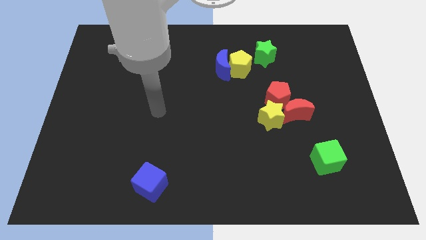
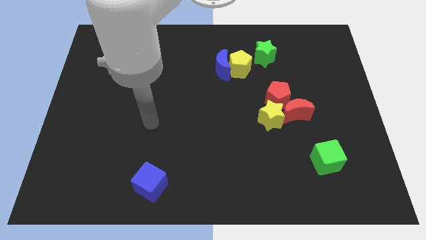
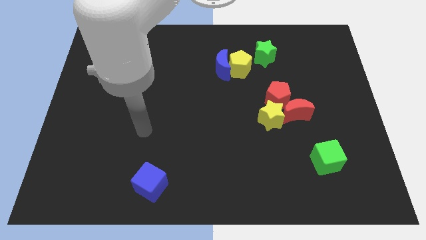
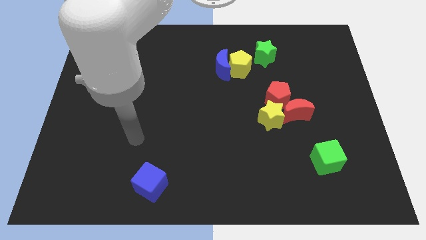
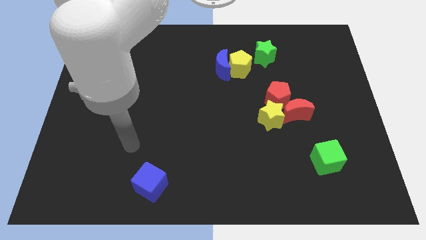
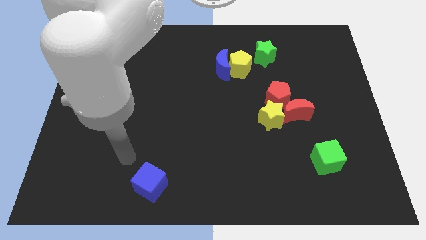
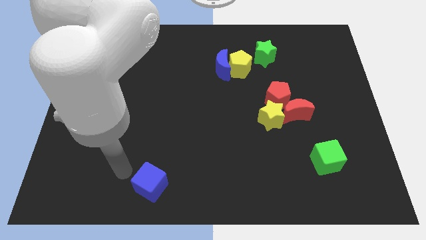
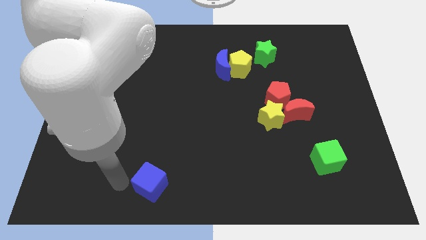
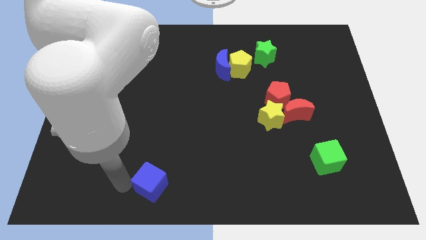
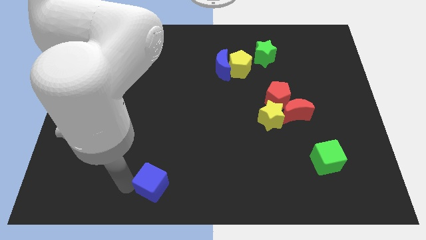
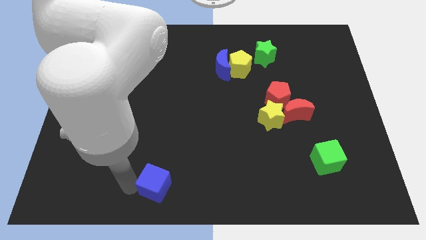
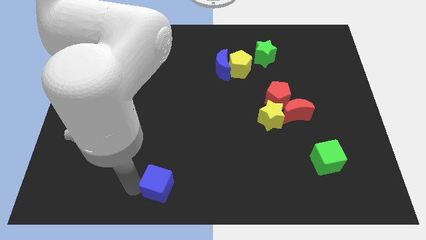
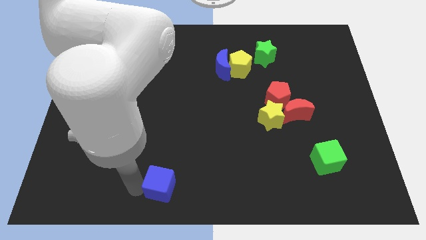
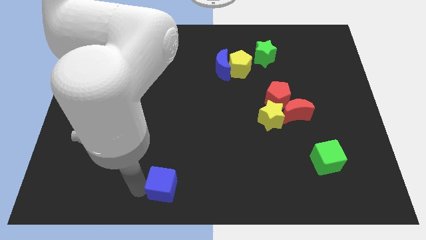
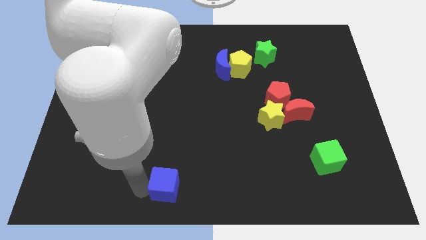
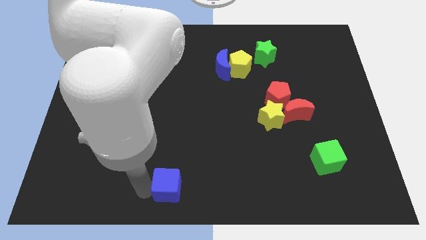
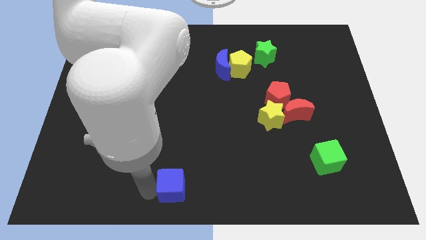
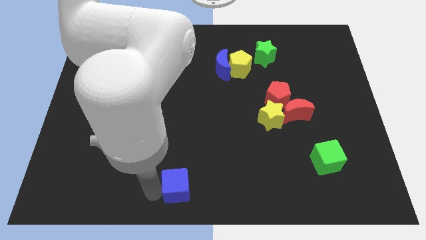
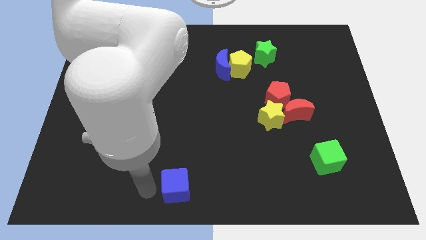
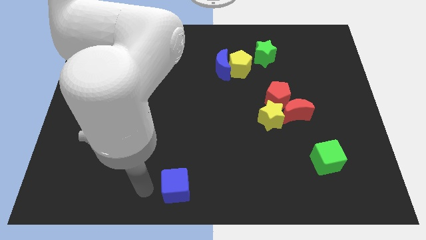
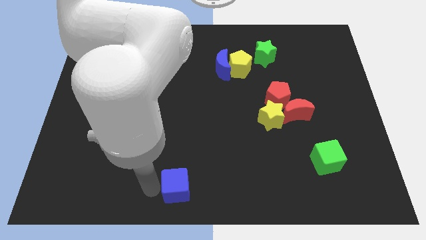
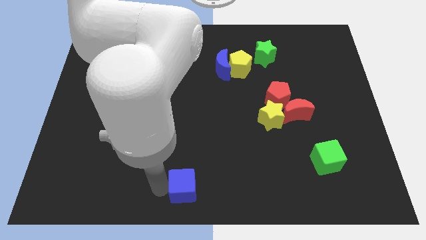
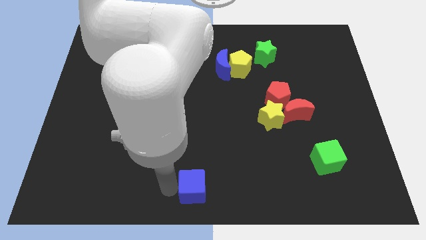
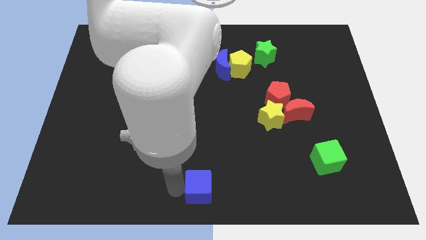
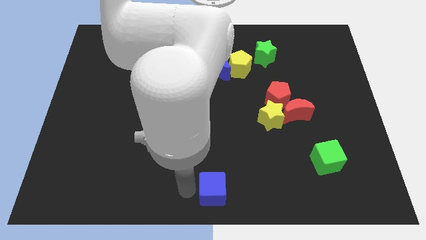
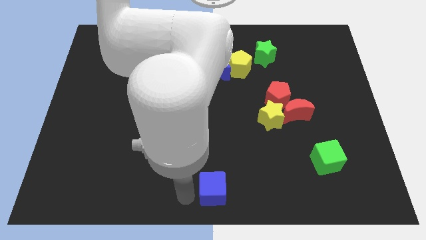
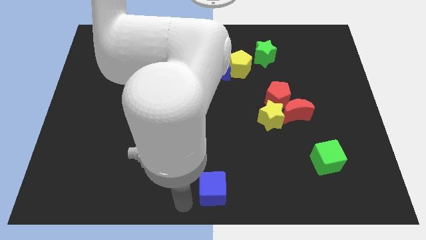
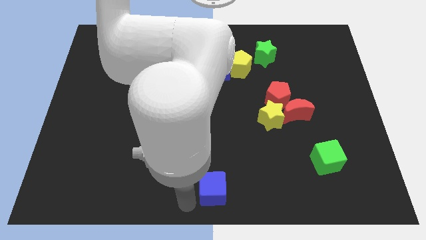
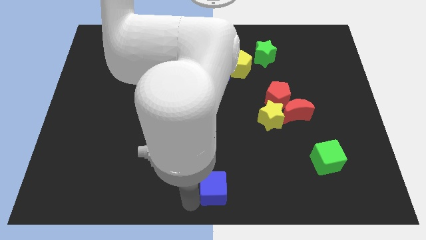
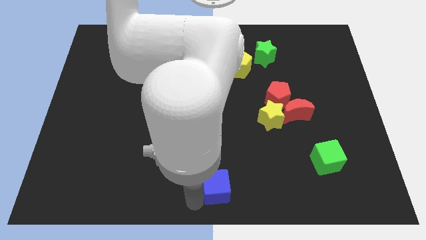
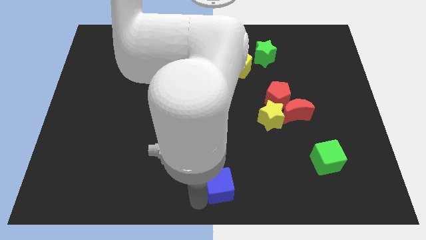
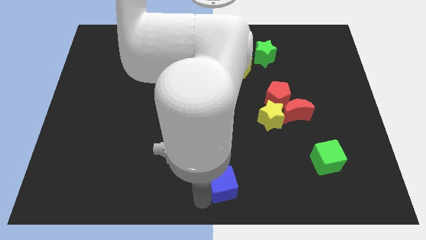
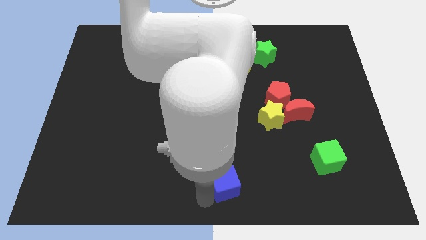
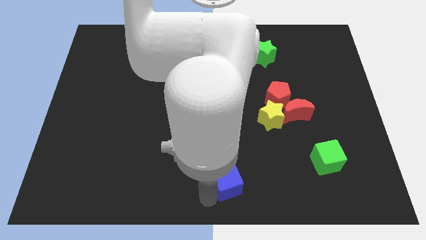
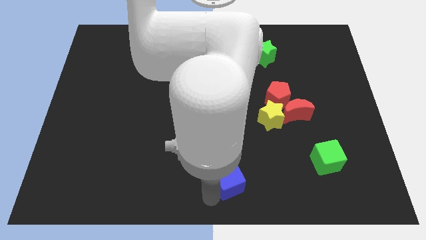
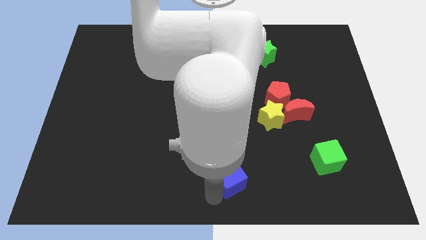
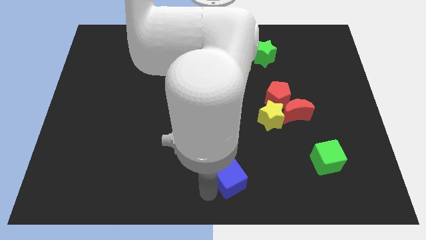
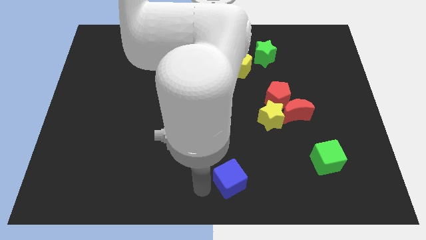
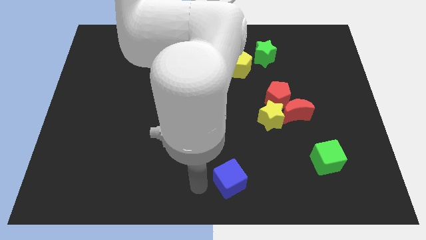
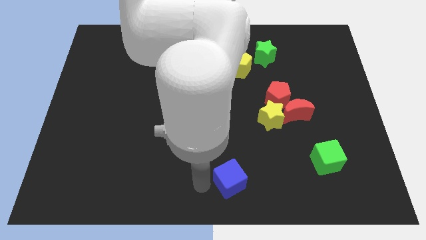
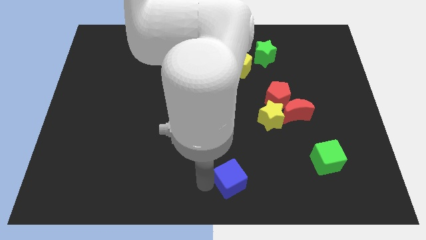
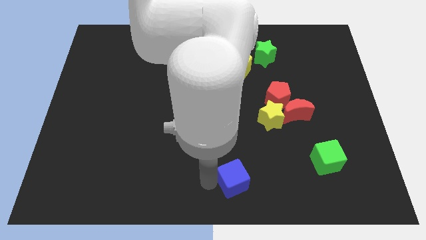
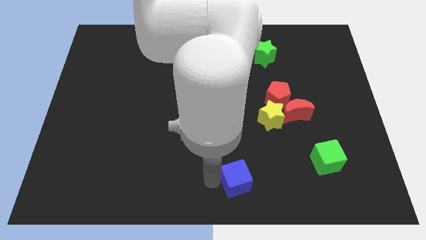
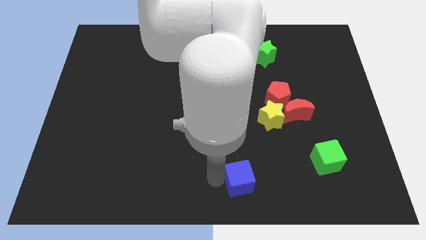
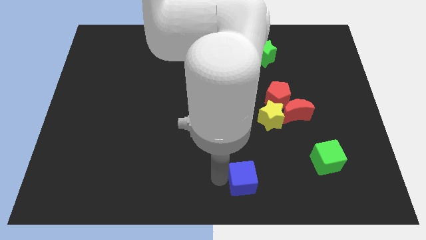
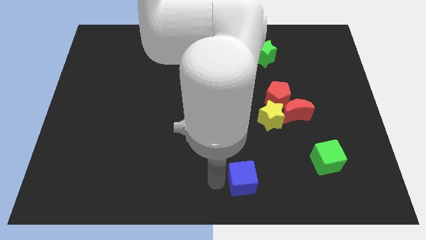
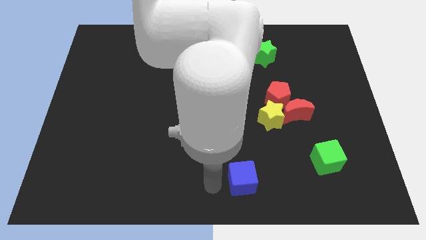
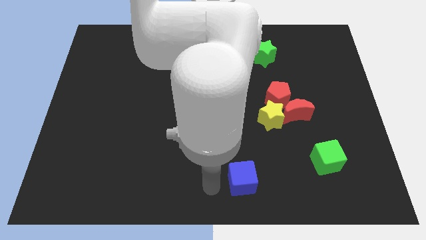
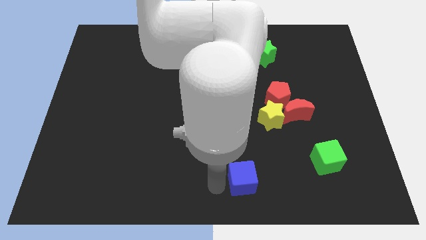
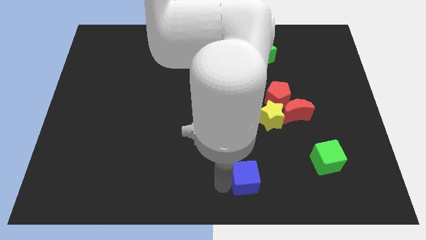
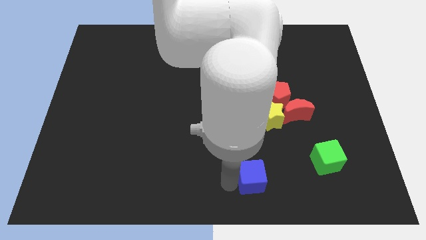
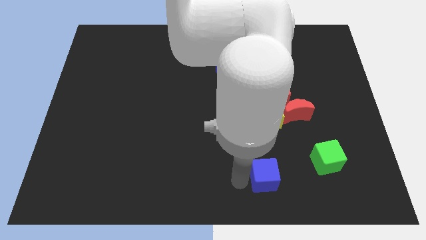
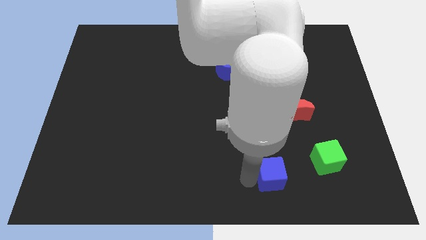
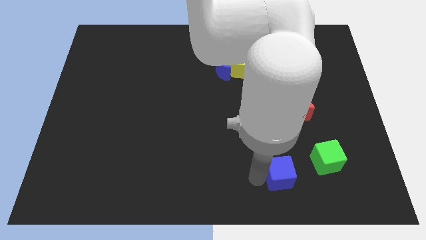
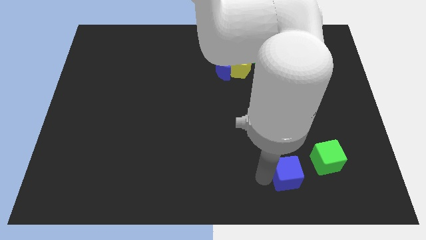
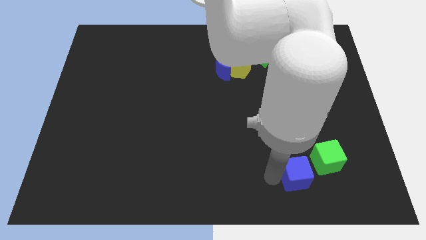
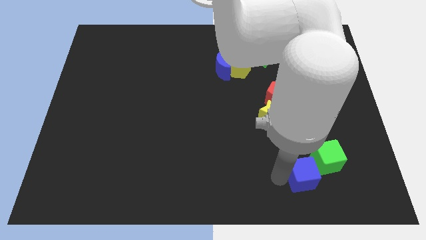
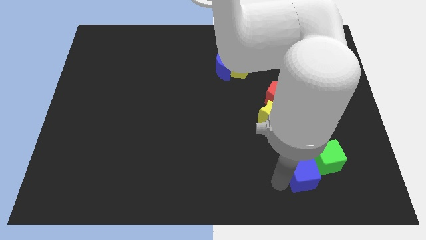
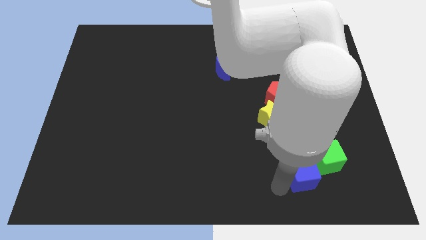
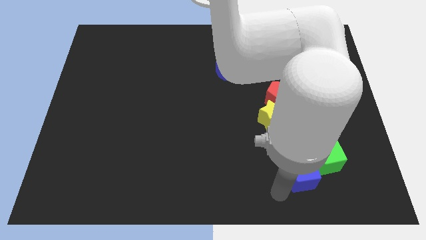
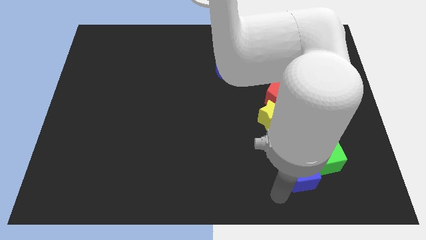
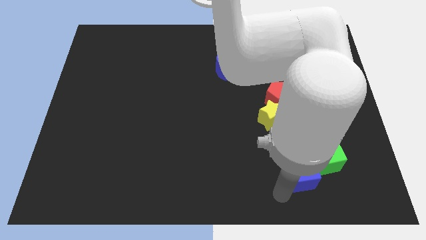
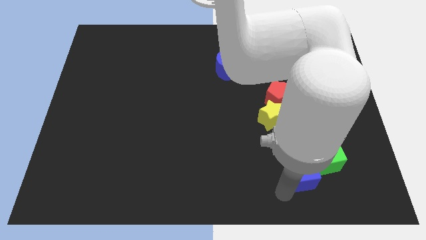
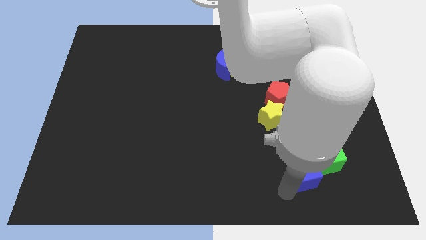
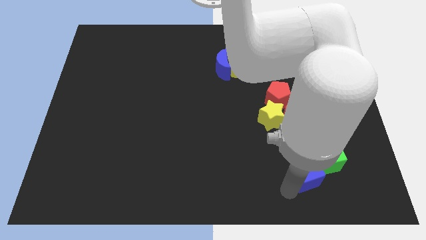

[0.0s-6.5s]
slide the blue cube towards the green cube

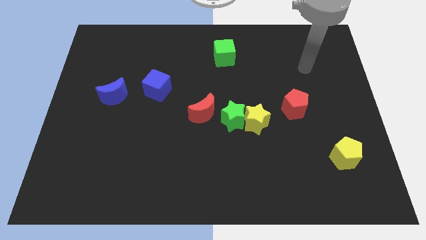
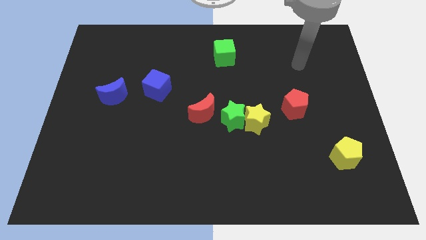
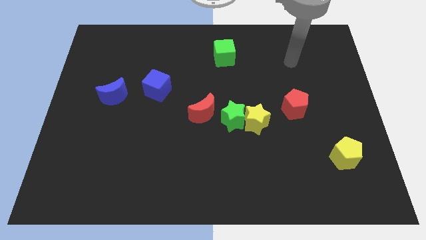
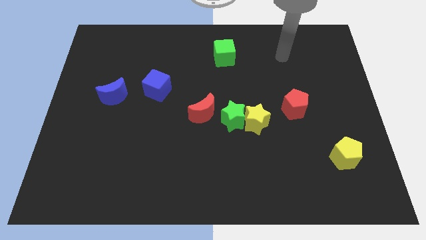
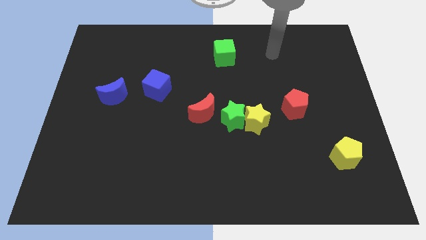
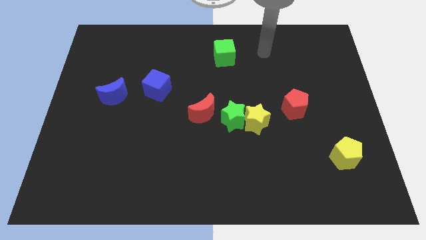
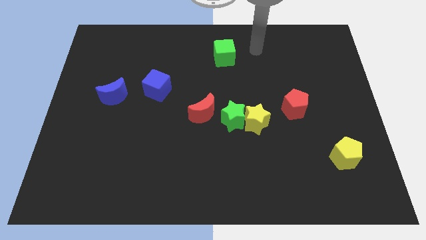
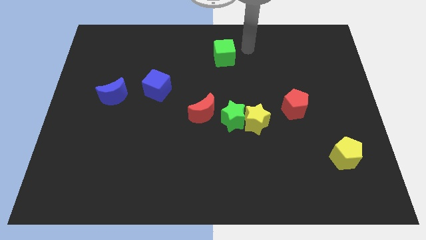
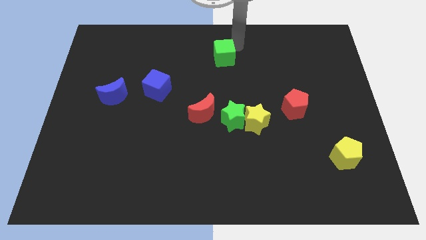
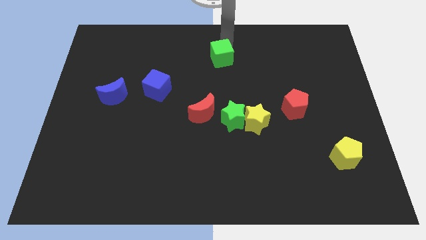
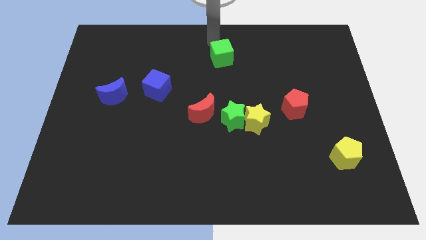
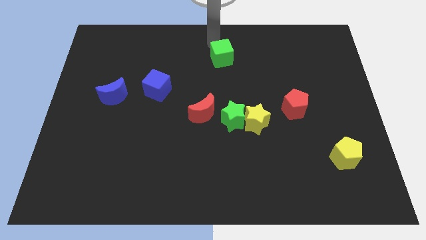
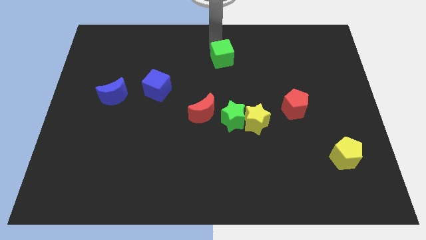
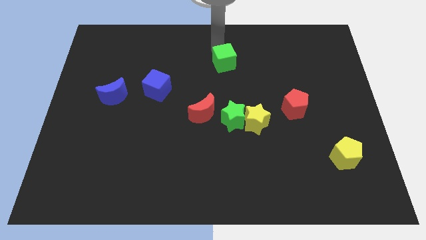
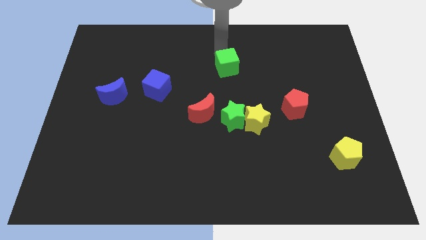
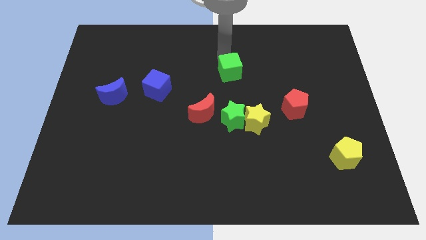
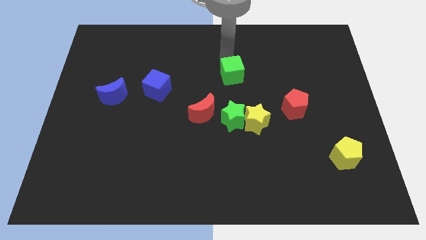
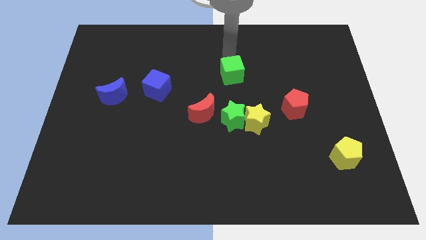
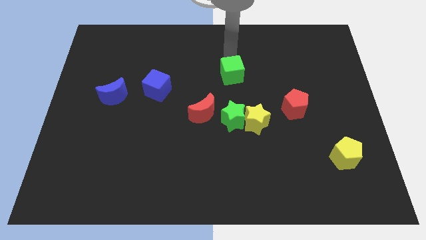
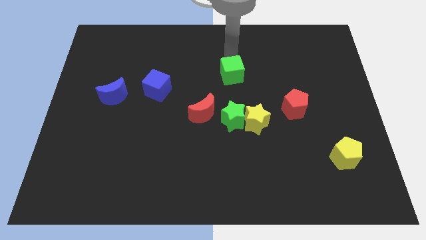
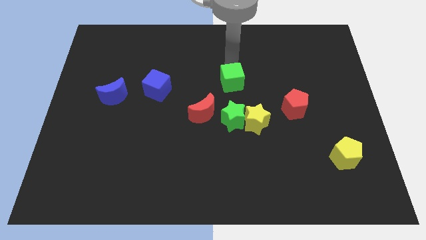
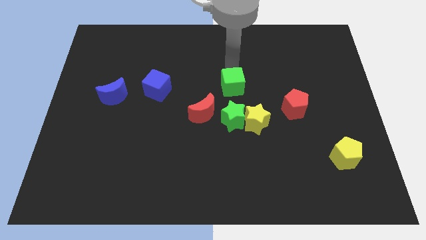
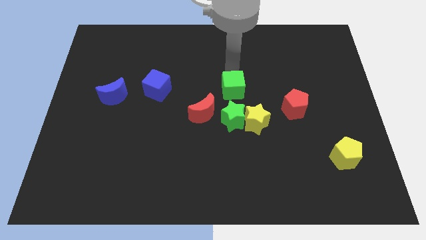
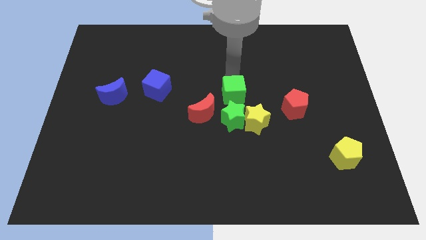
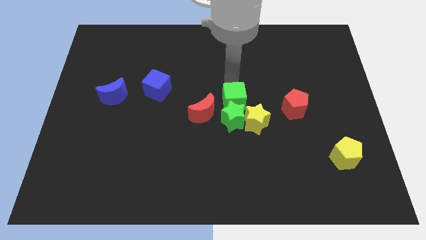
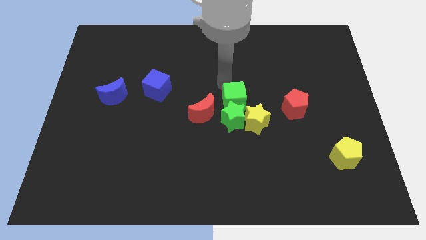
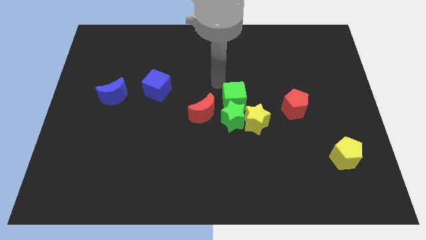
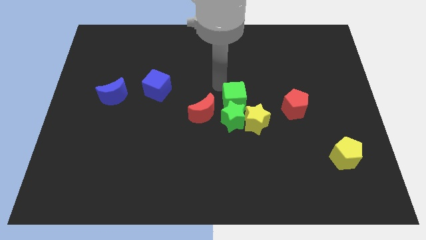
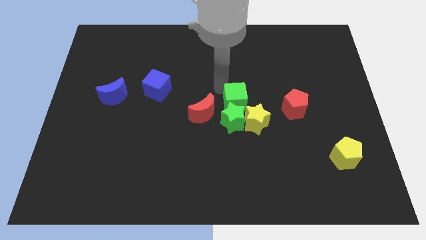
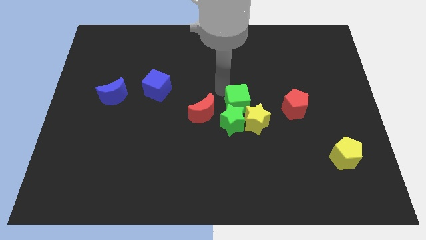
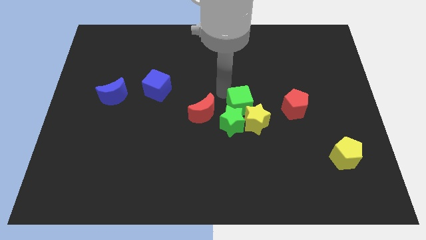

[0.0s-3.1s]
move the green cube next to the yellow star
